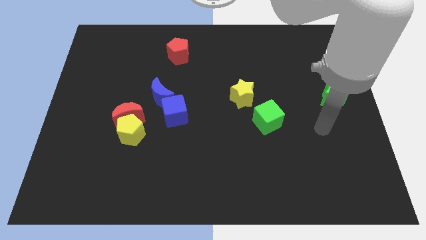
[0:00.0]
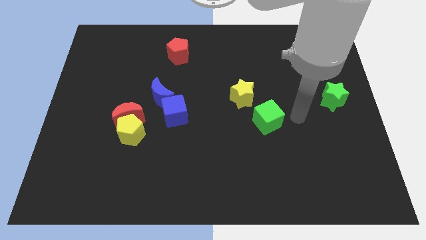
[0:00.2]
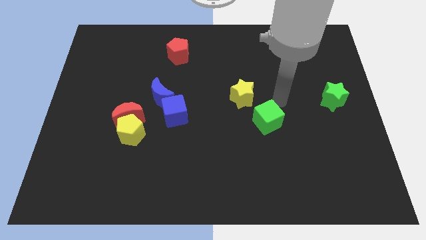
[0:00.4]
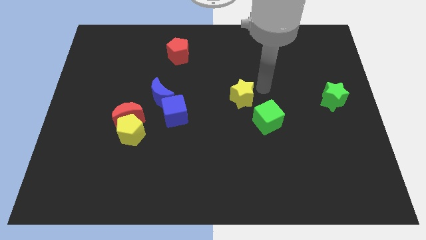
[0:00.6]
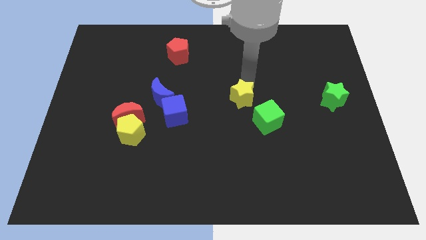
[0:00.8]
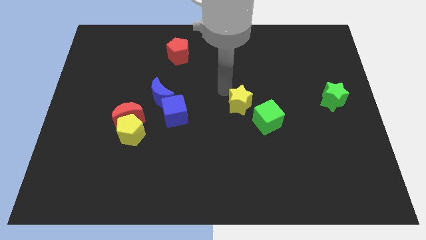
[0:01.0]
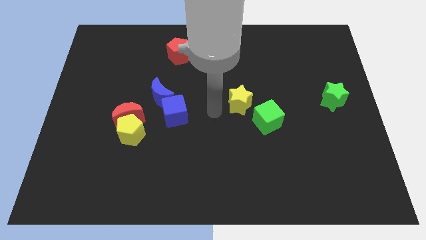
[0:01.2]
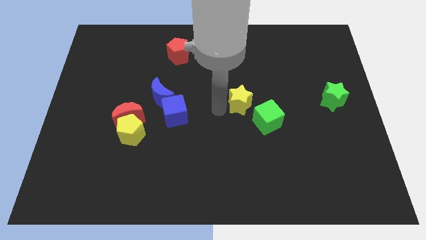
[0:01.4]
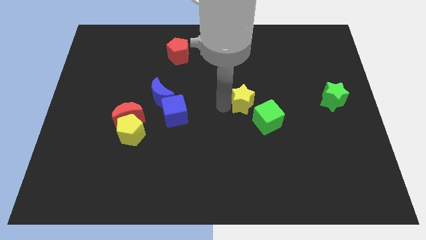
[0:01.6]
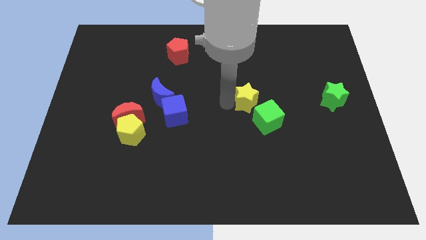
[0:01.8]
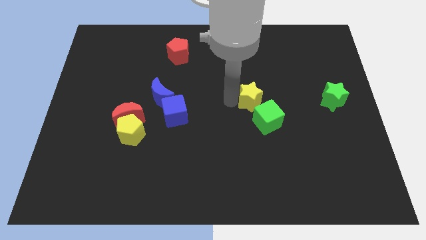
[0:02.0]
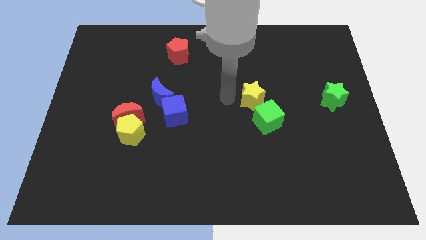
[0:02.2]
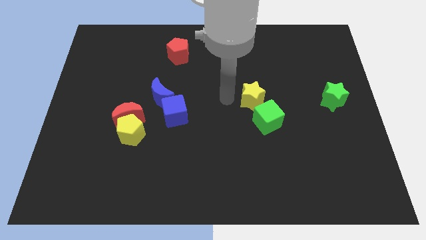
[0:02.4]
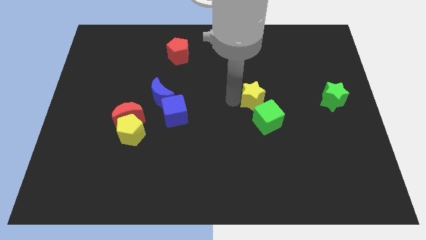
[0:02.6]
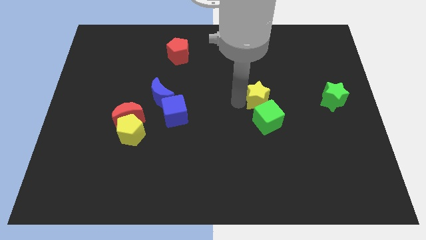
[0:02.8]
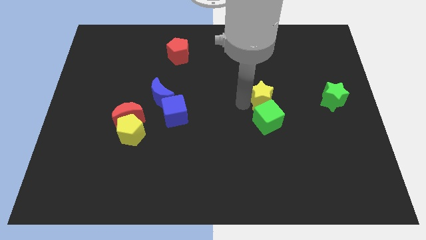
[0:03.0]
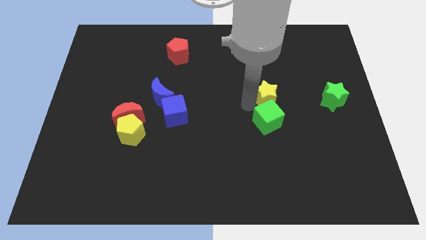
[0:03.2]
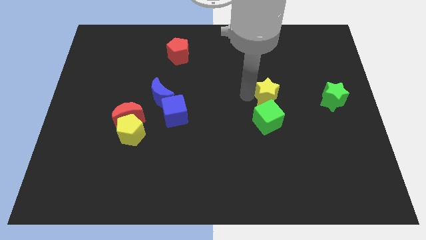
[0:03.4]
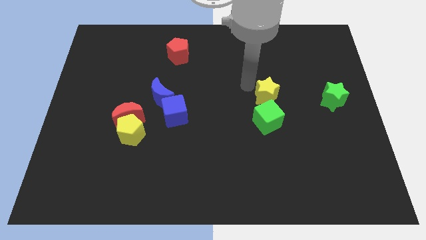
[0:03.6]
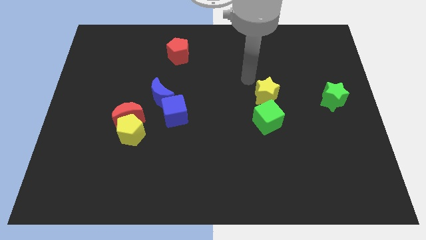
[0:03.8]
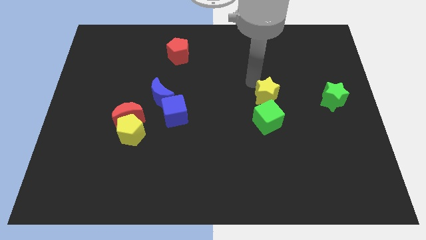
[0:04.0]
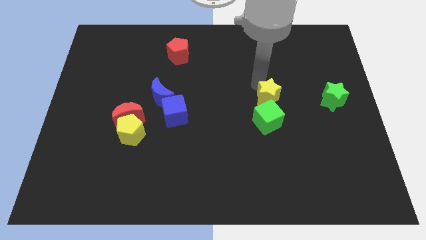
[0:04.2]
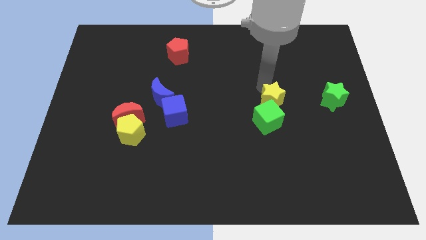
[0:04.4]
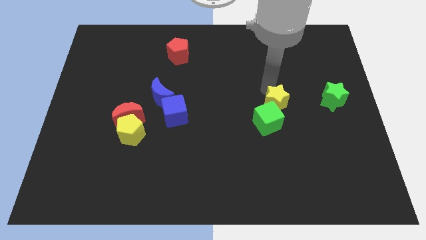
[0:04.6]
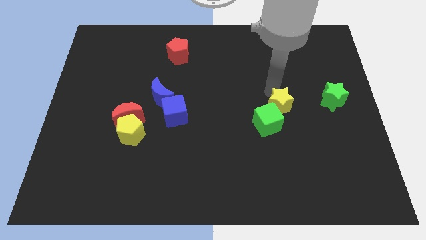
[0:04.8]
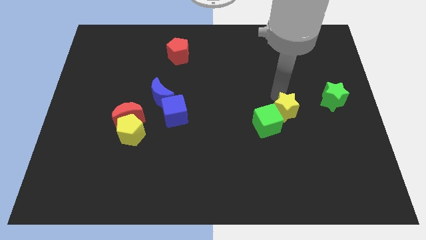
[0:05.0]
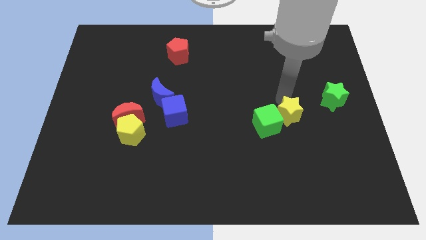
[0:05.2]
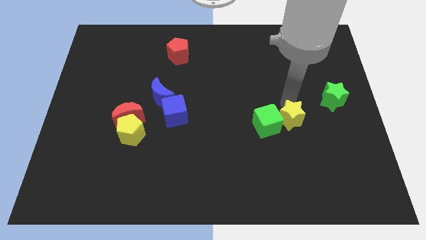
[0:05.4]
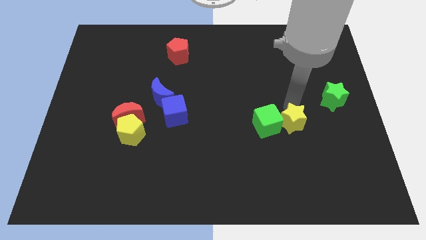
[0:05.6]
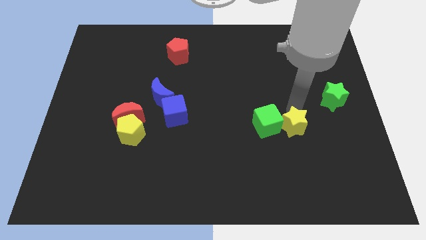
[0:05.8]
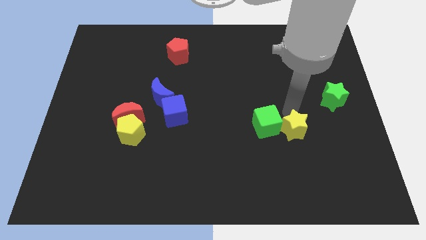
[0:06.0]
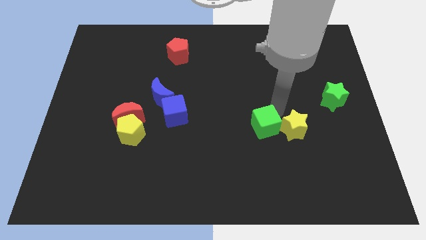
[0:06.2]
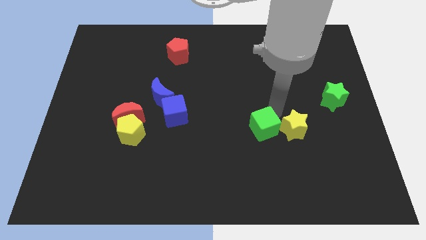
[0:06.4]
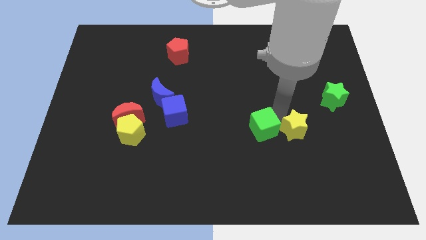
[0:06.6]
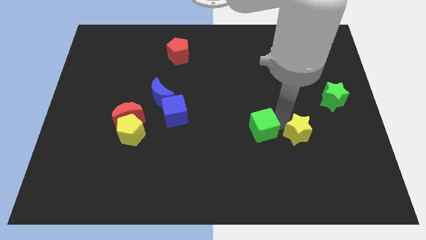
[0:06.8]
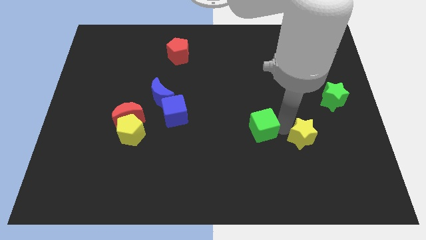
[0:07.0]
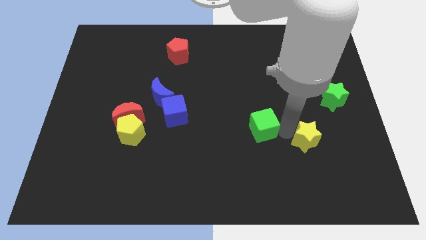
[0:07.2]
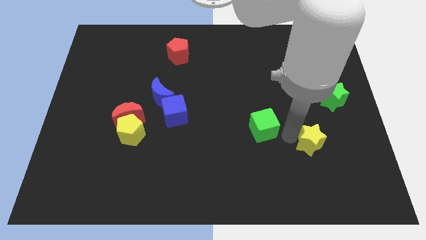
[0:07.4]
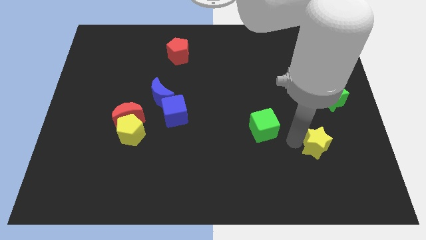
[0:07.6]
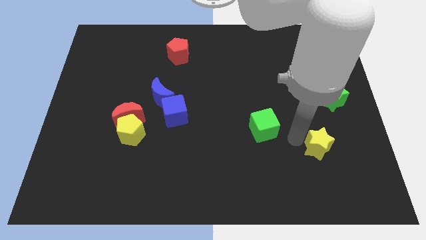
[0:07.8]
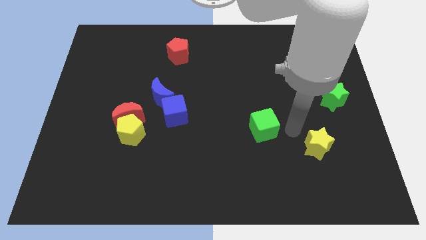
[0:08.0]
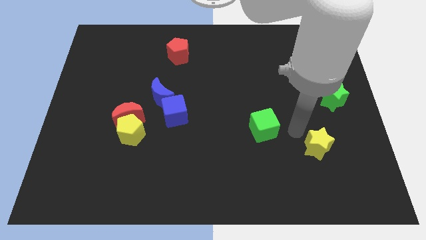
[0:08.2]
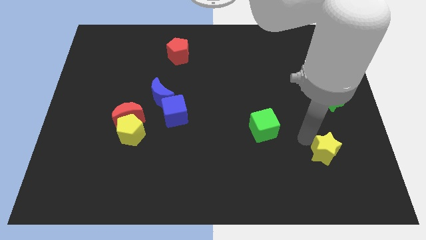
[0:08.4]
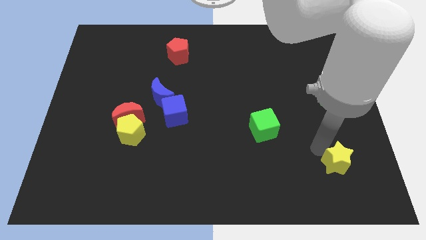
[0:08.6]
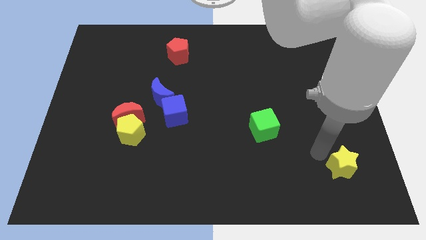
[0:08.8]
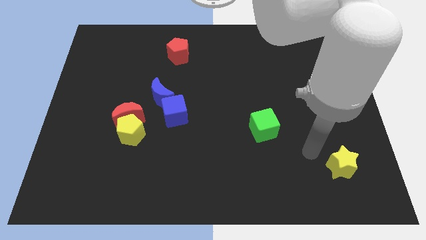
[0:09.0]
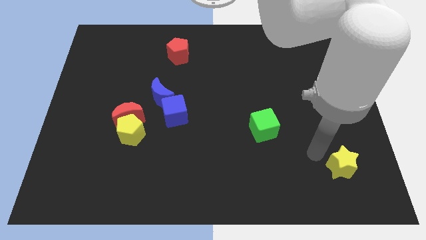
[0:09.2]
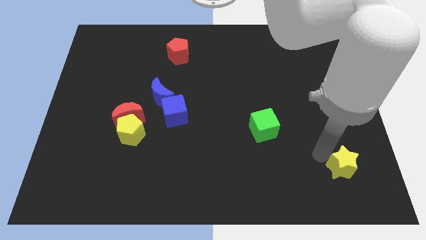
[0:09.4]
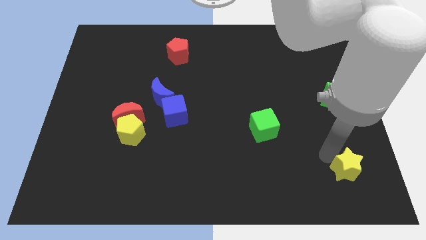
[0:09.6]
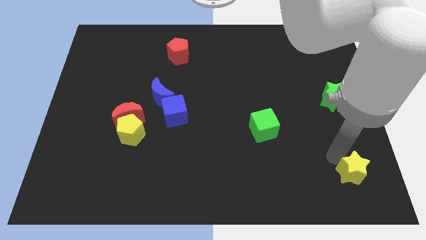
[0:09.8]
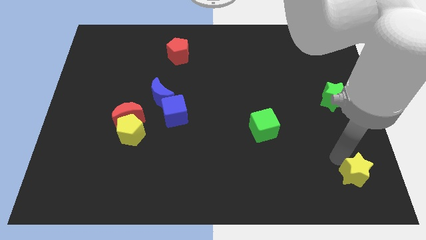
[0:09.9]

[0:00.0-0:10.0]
move the yellow star to the lower right corner

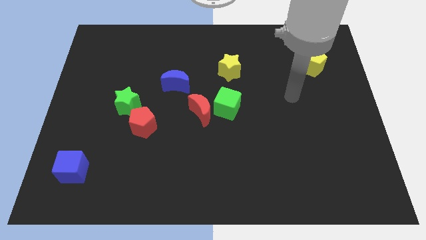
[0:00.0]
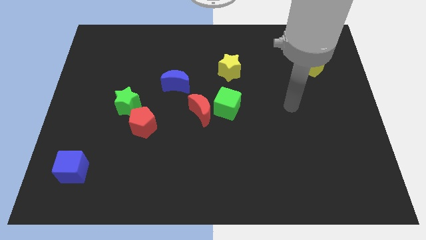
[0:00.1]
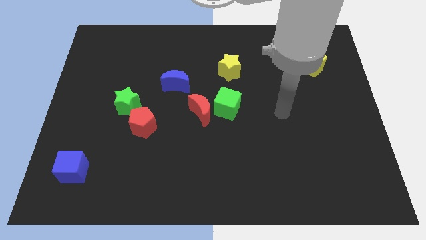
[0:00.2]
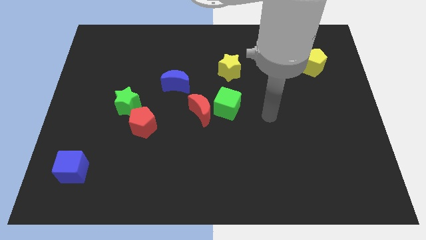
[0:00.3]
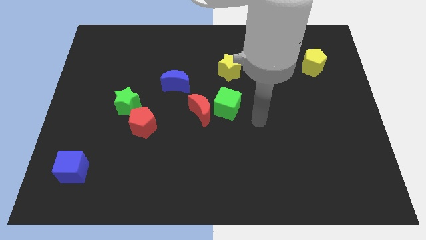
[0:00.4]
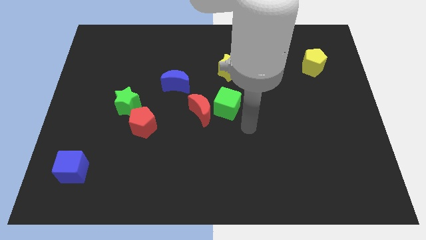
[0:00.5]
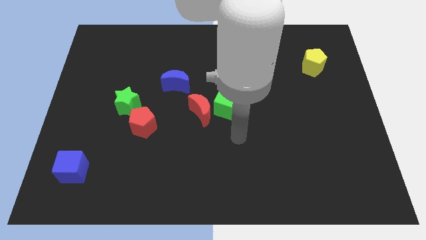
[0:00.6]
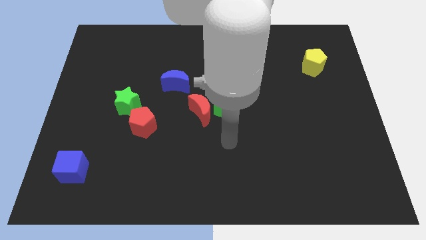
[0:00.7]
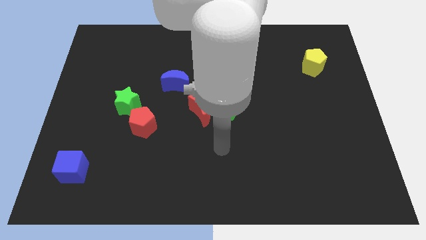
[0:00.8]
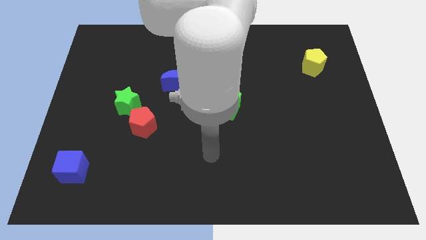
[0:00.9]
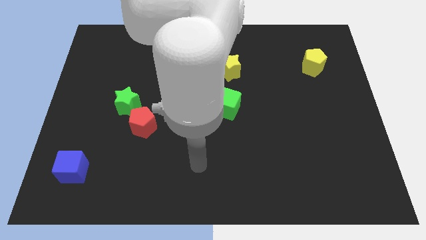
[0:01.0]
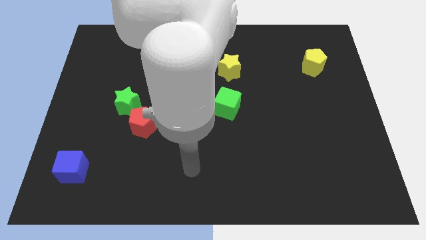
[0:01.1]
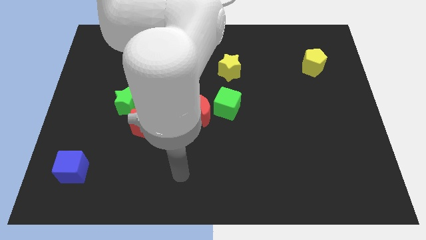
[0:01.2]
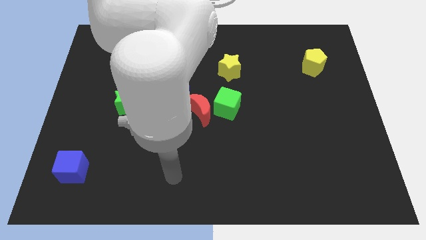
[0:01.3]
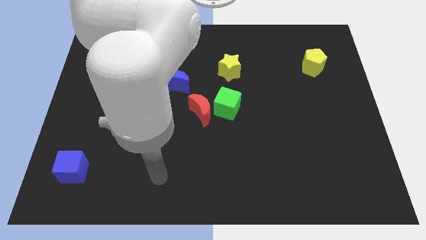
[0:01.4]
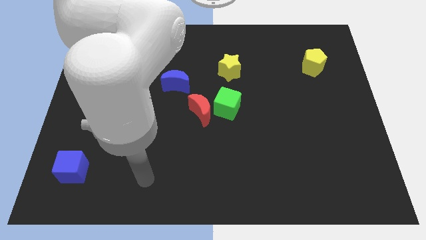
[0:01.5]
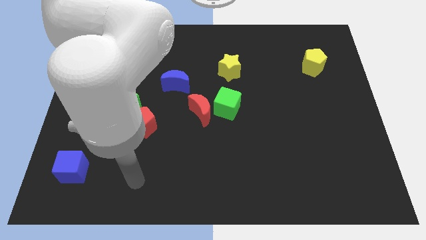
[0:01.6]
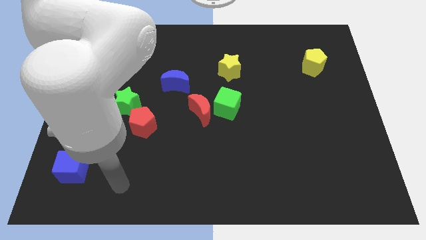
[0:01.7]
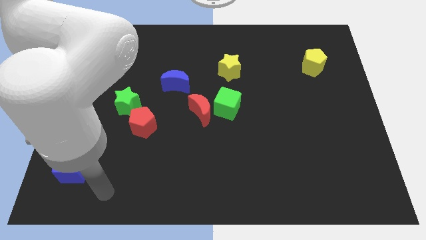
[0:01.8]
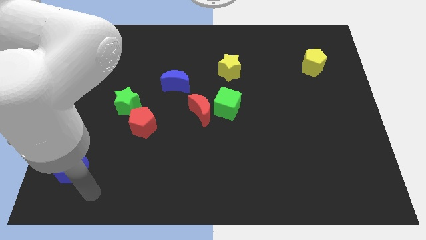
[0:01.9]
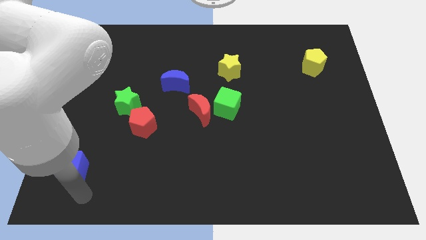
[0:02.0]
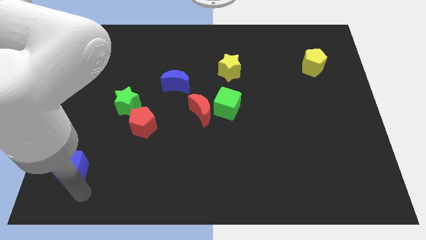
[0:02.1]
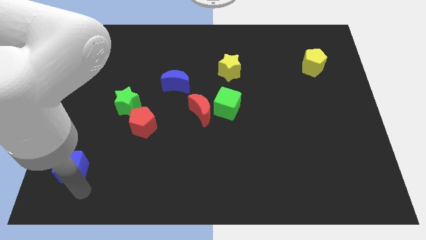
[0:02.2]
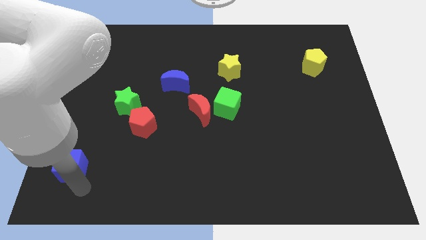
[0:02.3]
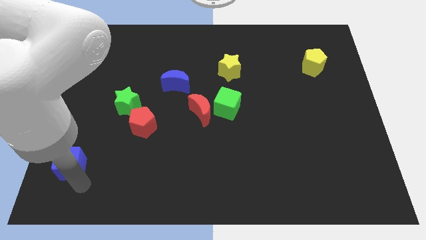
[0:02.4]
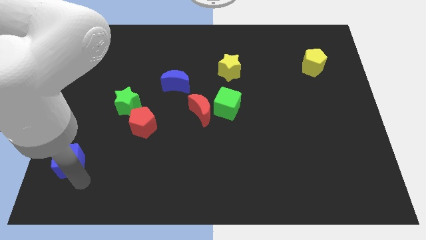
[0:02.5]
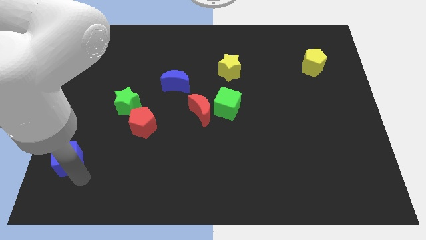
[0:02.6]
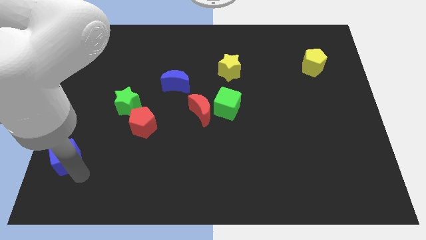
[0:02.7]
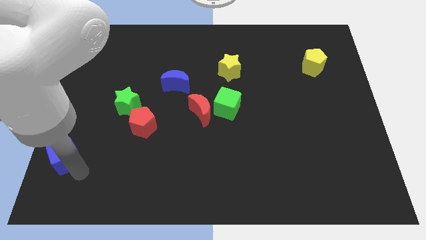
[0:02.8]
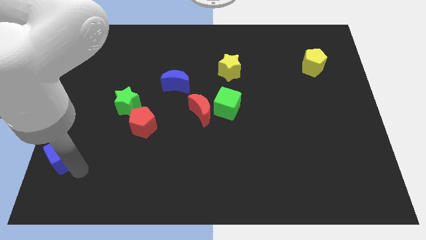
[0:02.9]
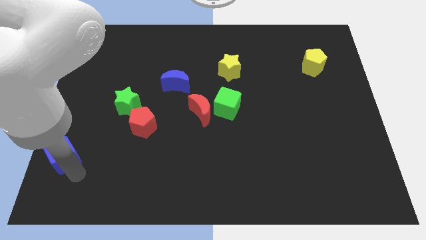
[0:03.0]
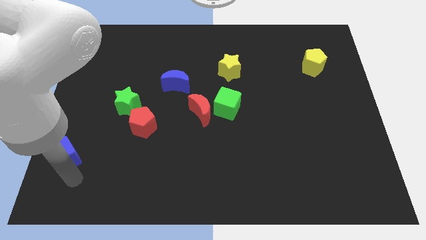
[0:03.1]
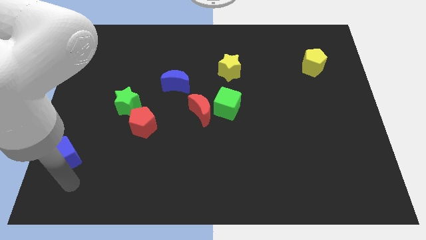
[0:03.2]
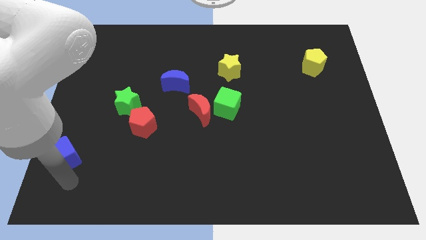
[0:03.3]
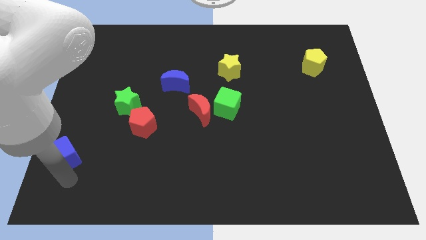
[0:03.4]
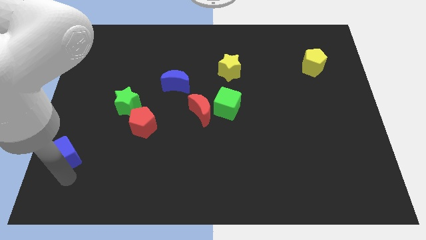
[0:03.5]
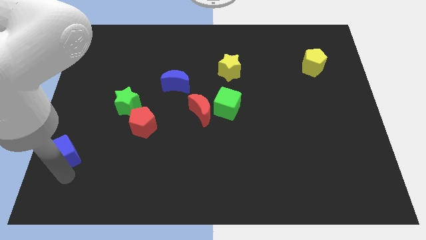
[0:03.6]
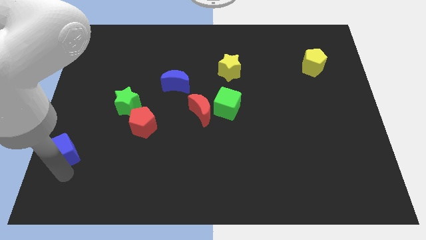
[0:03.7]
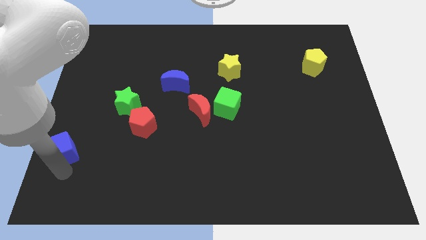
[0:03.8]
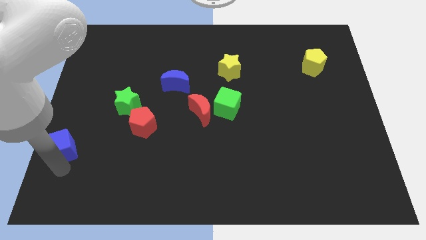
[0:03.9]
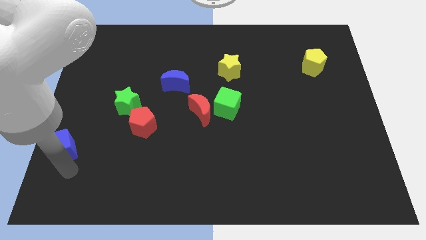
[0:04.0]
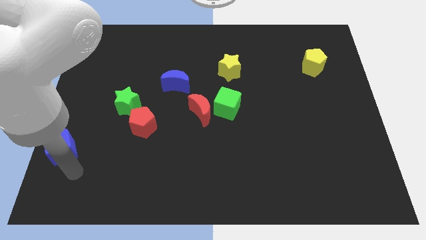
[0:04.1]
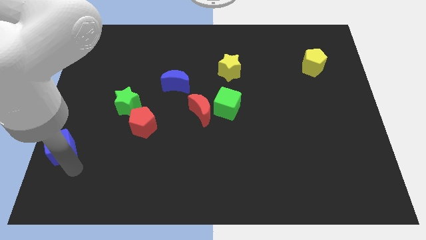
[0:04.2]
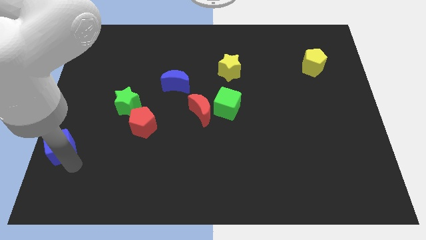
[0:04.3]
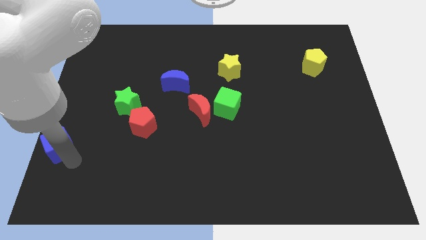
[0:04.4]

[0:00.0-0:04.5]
push the blue cube to the left side
